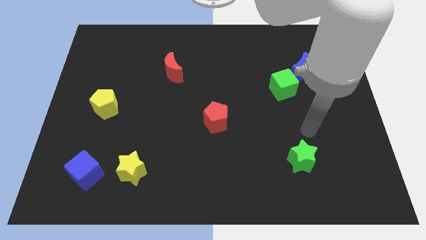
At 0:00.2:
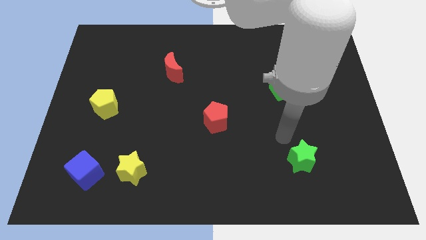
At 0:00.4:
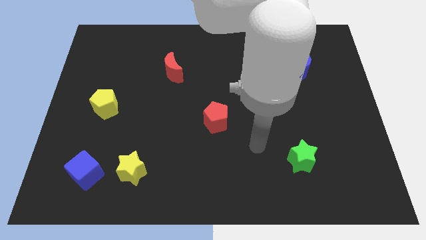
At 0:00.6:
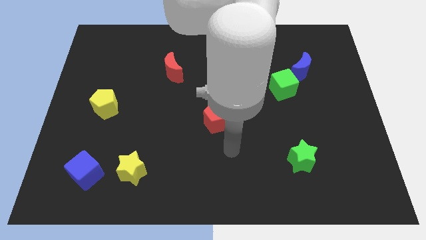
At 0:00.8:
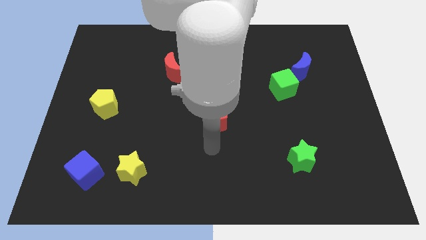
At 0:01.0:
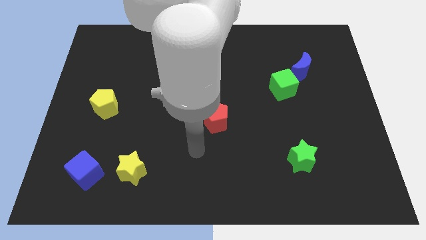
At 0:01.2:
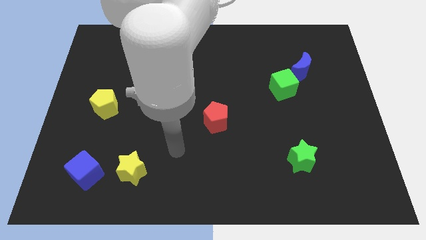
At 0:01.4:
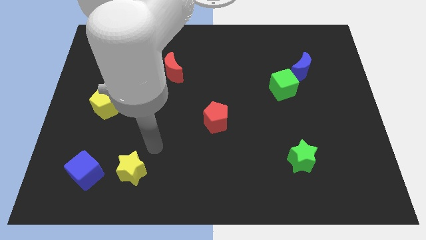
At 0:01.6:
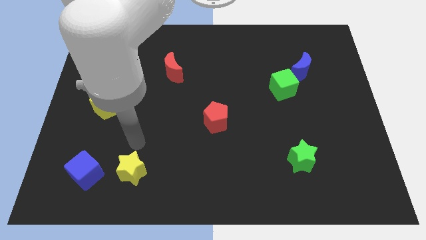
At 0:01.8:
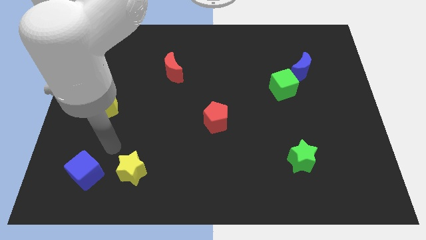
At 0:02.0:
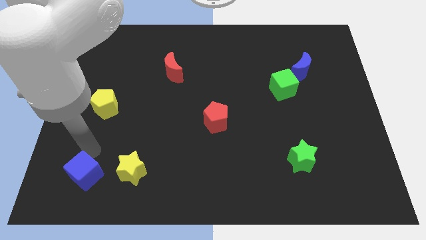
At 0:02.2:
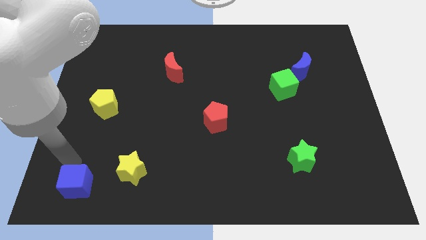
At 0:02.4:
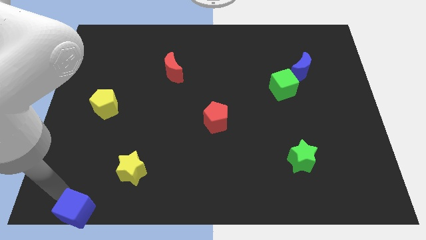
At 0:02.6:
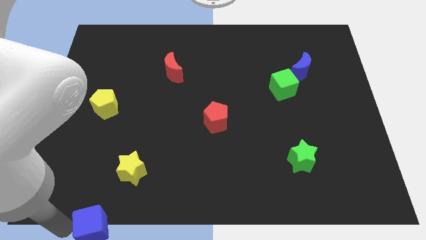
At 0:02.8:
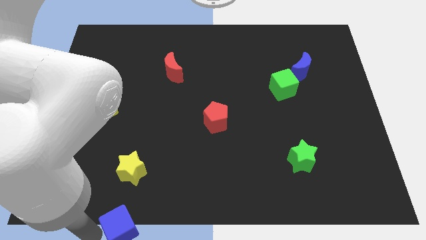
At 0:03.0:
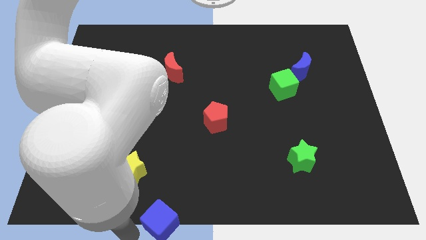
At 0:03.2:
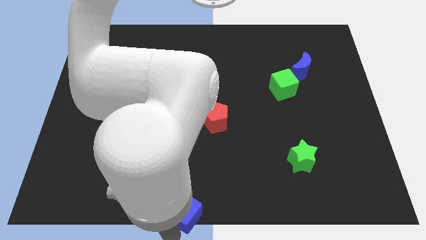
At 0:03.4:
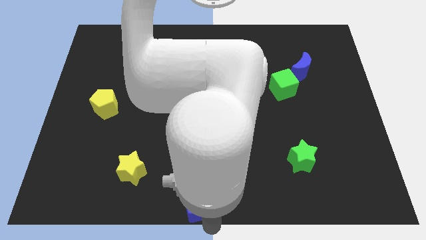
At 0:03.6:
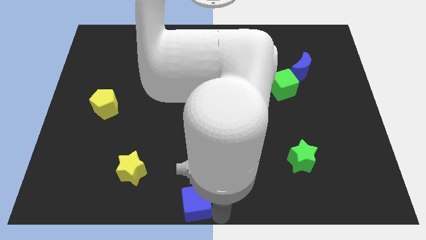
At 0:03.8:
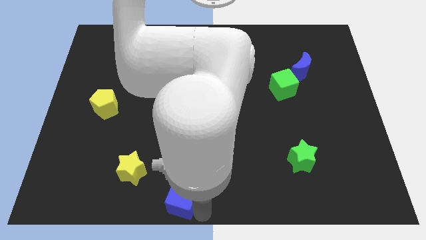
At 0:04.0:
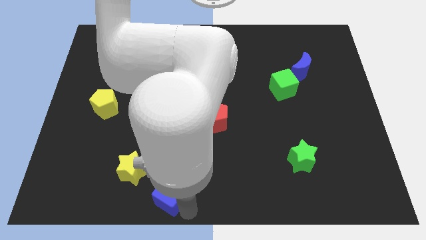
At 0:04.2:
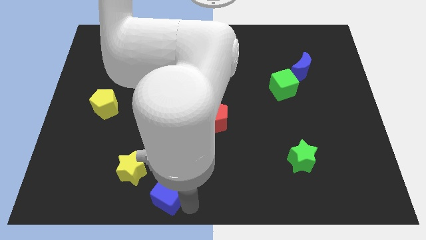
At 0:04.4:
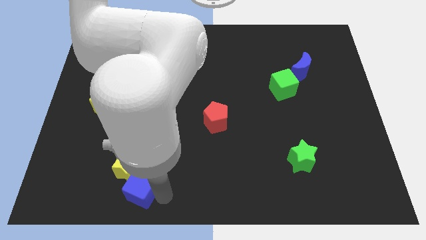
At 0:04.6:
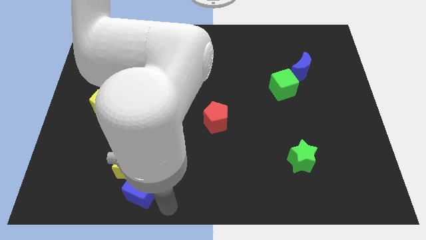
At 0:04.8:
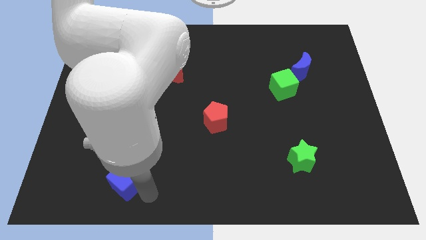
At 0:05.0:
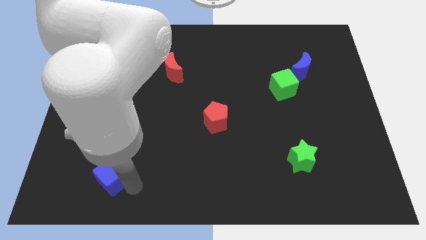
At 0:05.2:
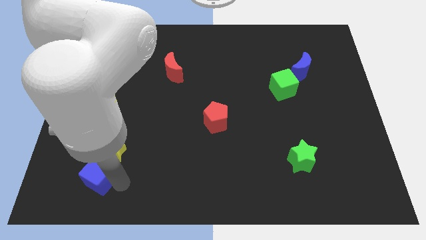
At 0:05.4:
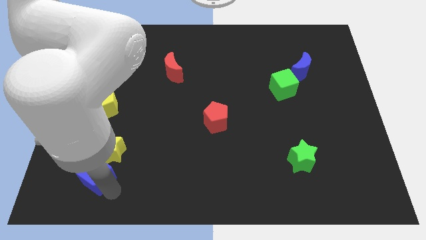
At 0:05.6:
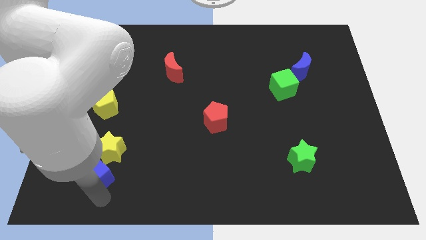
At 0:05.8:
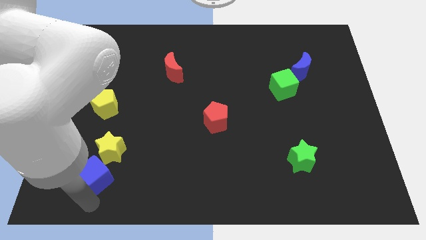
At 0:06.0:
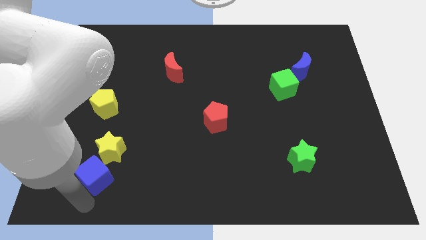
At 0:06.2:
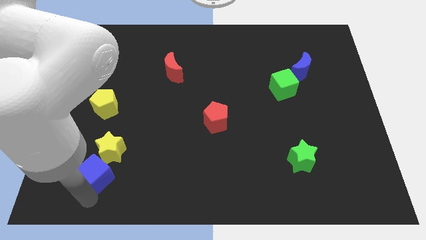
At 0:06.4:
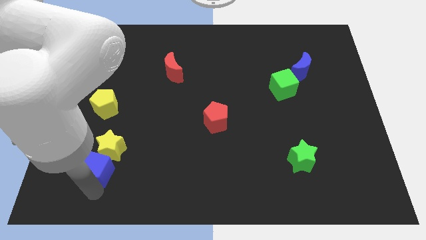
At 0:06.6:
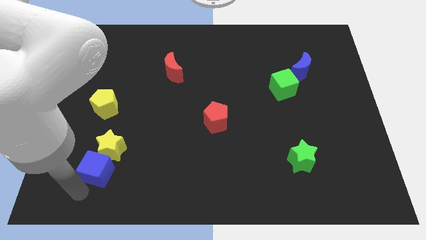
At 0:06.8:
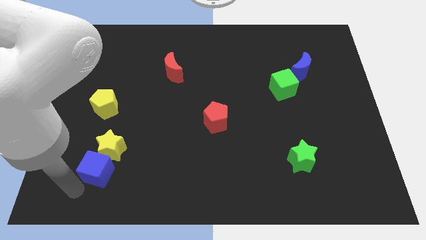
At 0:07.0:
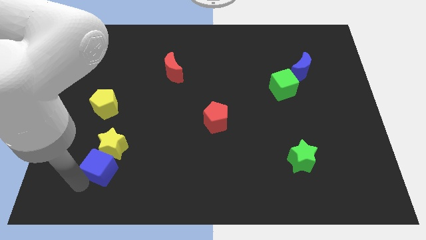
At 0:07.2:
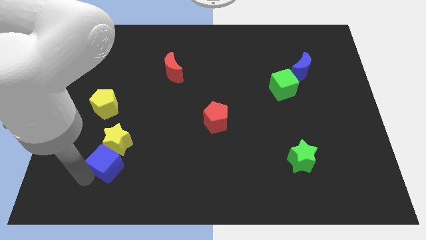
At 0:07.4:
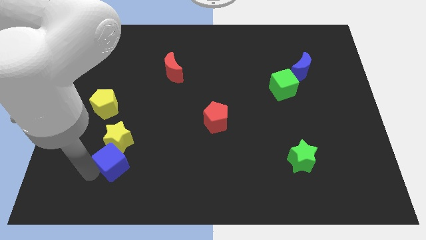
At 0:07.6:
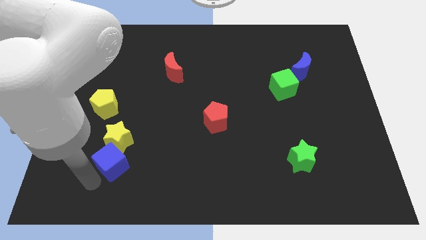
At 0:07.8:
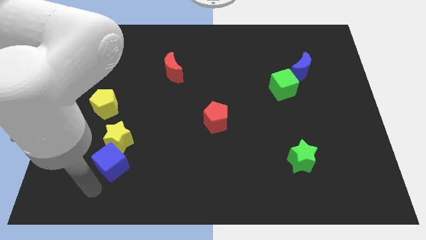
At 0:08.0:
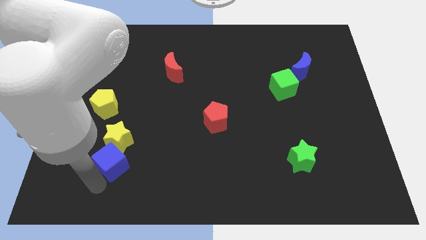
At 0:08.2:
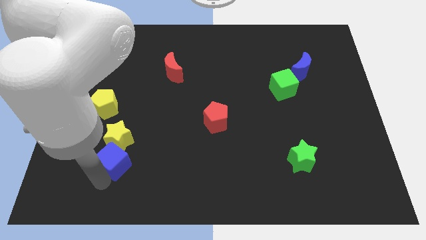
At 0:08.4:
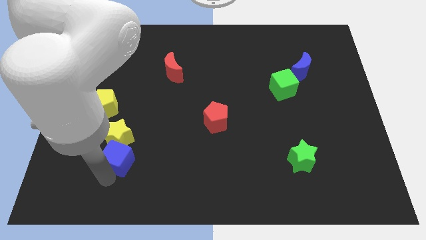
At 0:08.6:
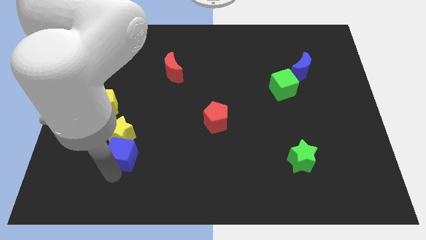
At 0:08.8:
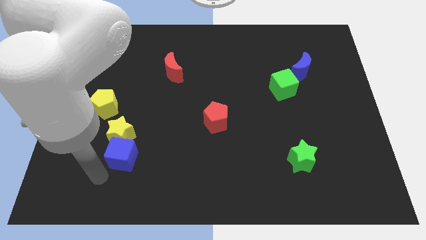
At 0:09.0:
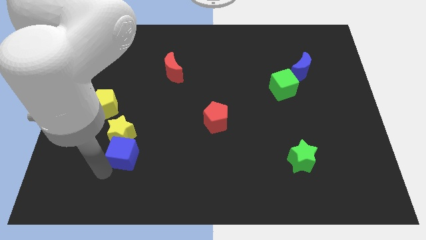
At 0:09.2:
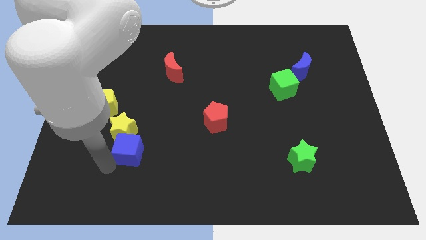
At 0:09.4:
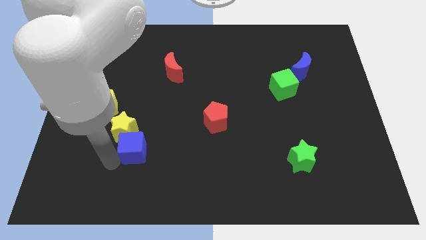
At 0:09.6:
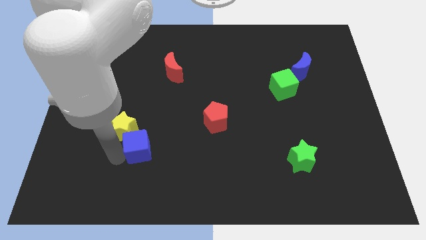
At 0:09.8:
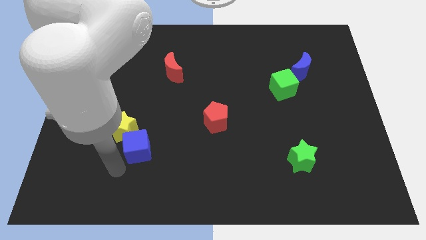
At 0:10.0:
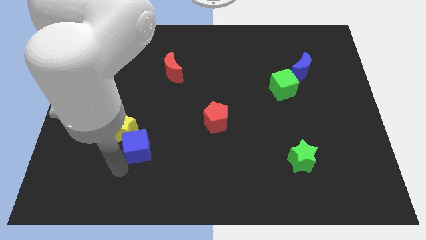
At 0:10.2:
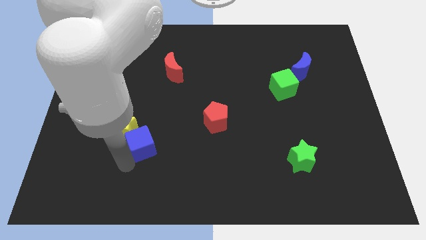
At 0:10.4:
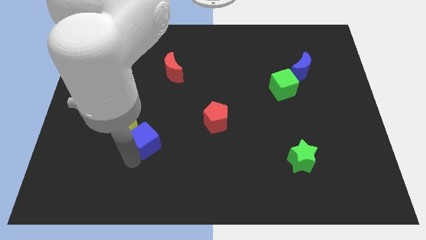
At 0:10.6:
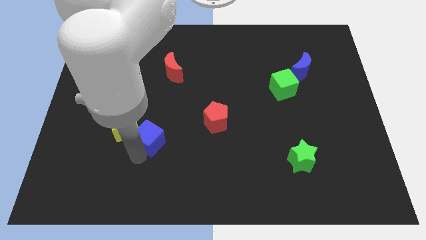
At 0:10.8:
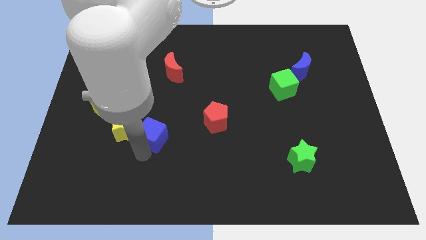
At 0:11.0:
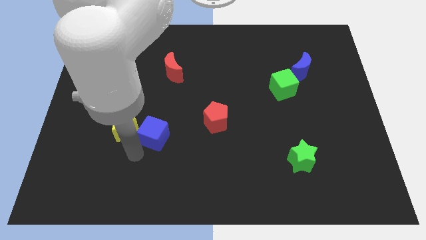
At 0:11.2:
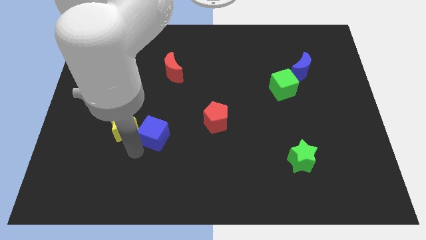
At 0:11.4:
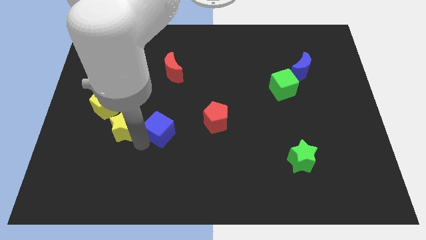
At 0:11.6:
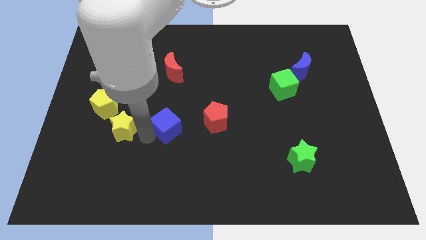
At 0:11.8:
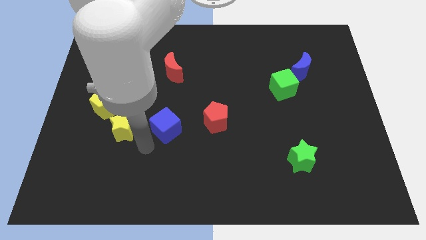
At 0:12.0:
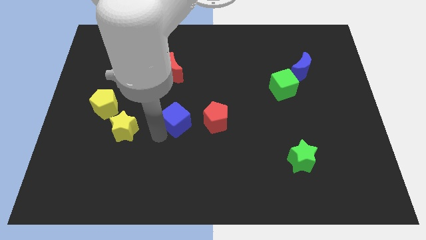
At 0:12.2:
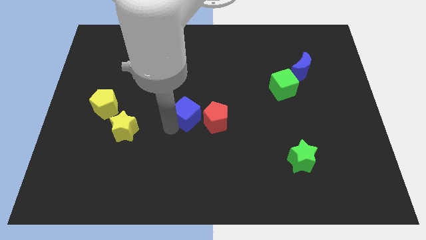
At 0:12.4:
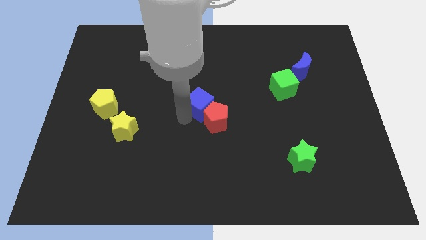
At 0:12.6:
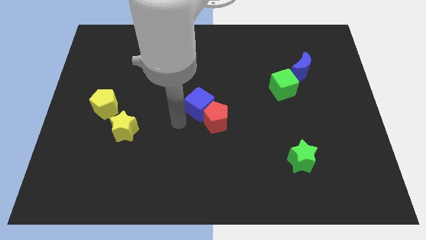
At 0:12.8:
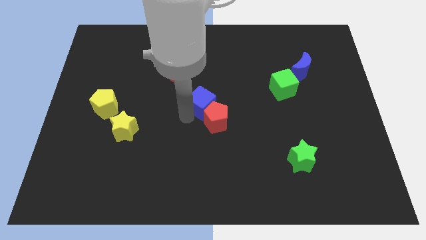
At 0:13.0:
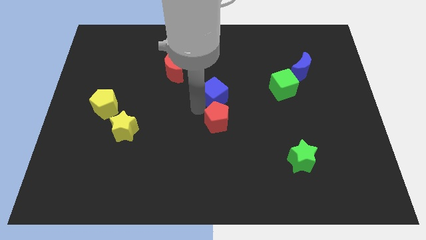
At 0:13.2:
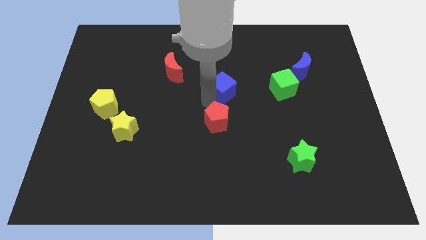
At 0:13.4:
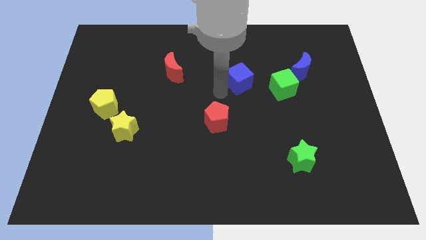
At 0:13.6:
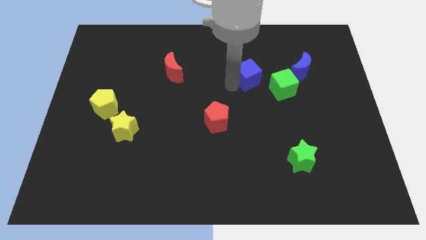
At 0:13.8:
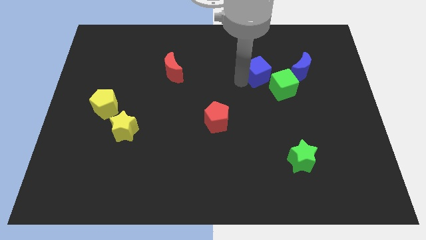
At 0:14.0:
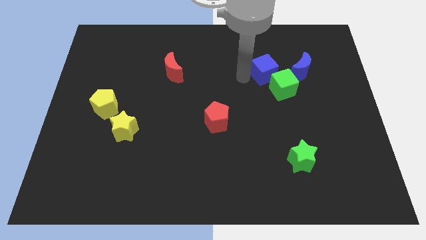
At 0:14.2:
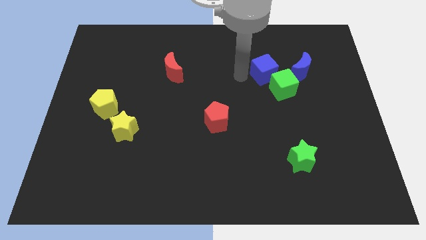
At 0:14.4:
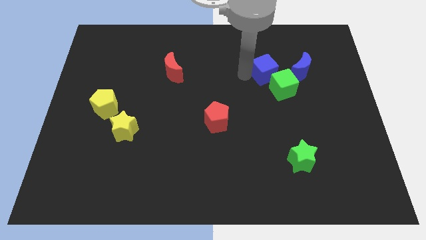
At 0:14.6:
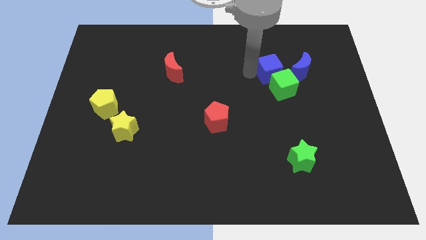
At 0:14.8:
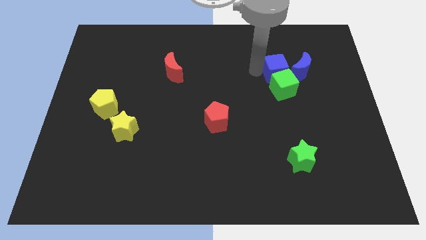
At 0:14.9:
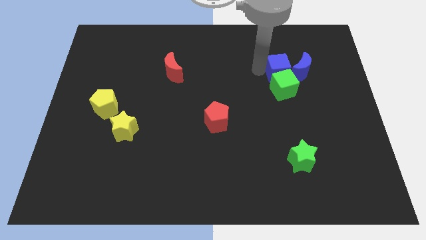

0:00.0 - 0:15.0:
push the blue cube to the blue moon

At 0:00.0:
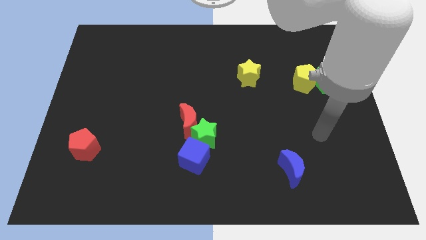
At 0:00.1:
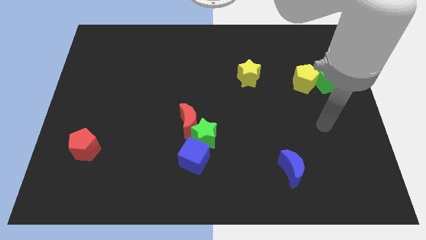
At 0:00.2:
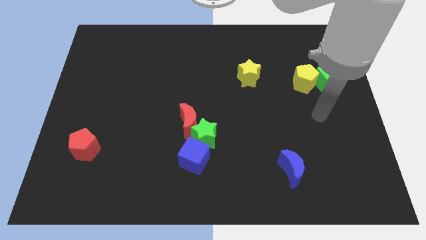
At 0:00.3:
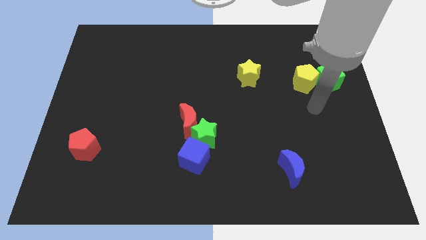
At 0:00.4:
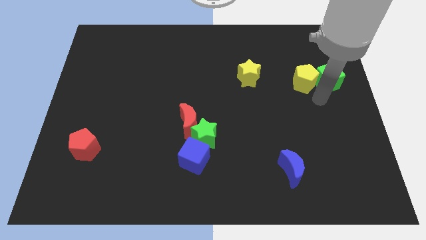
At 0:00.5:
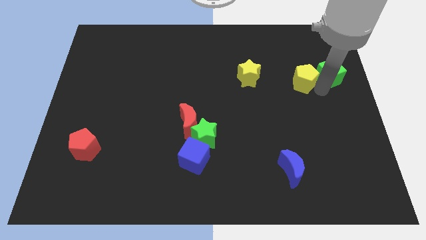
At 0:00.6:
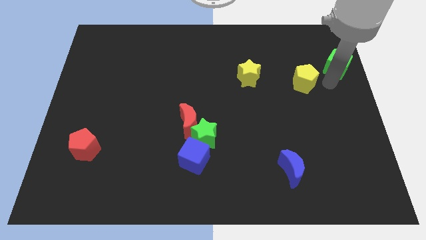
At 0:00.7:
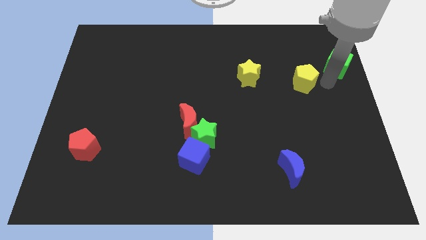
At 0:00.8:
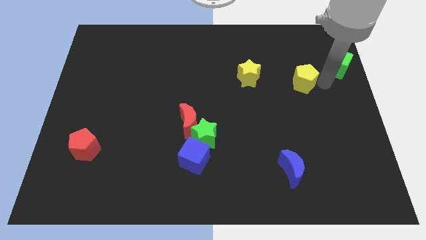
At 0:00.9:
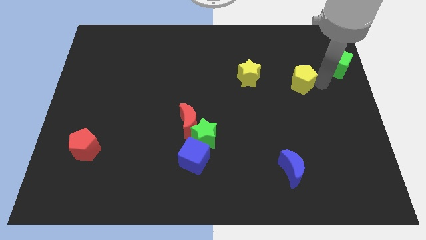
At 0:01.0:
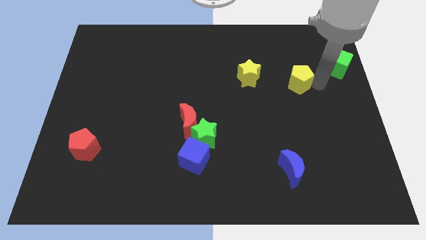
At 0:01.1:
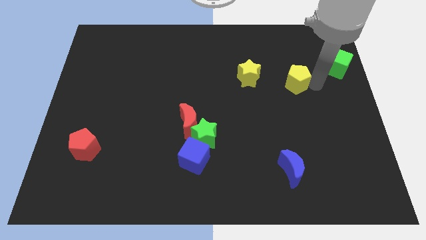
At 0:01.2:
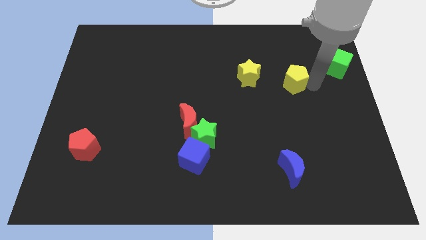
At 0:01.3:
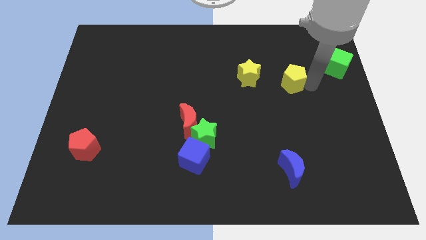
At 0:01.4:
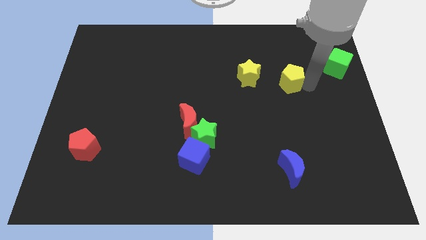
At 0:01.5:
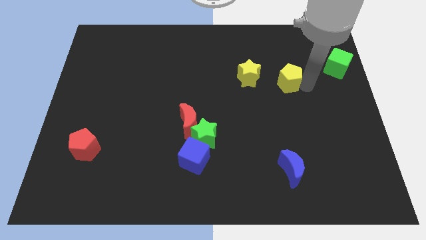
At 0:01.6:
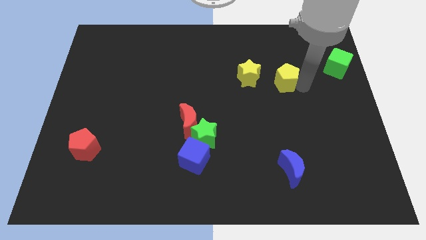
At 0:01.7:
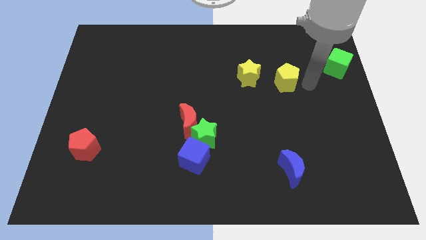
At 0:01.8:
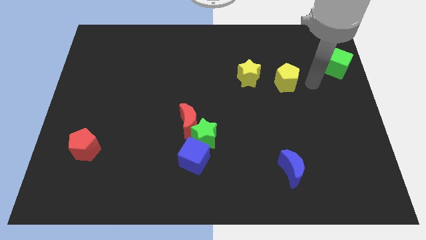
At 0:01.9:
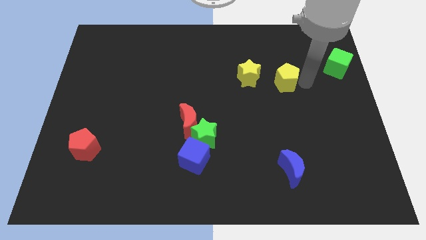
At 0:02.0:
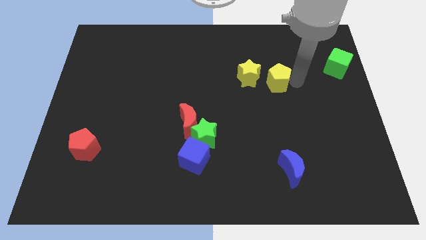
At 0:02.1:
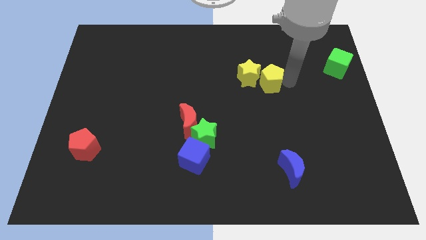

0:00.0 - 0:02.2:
move the yellow pentagon towards the yellow star
